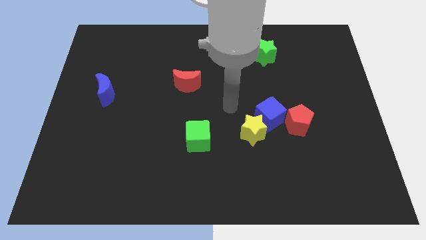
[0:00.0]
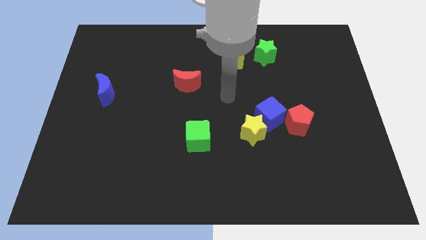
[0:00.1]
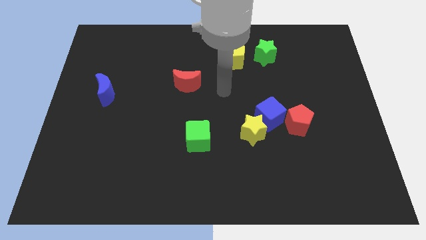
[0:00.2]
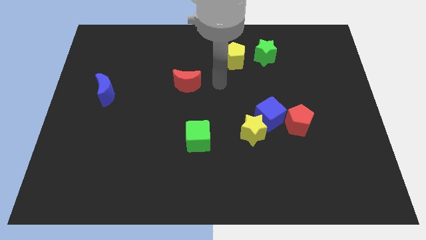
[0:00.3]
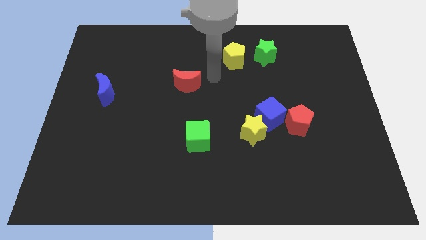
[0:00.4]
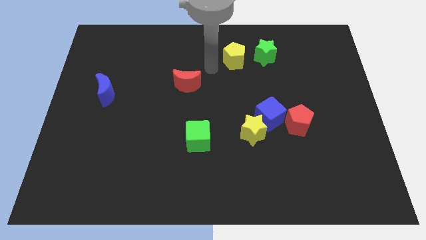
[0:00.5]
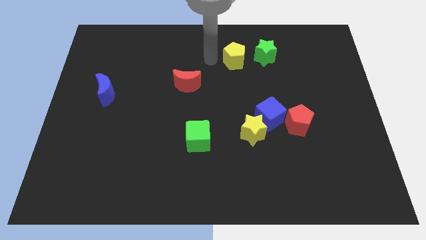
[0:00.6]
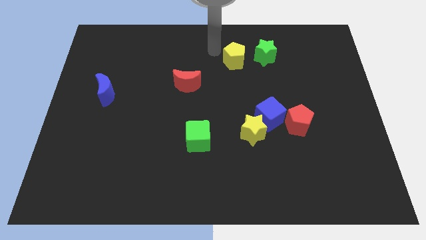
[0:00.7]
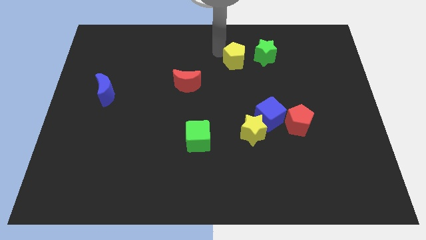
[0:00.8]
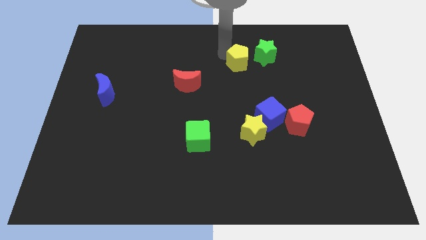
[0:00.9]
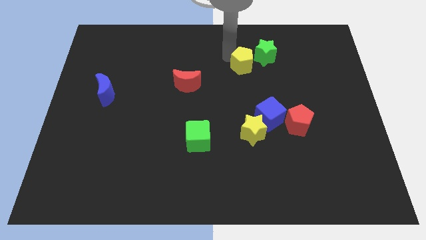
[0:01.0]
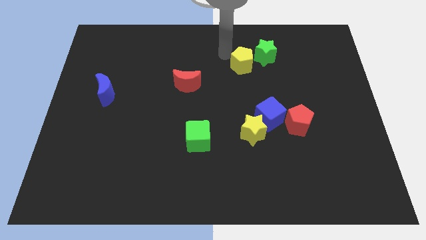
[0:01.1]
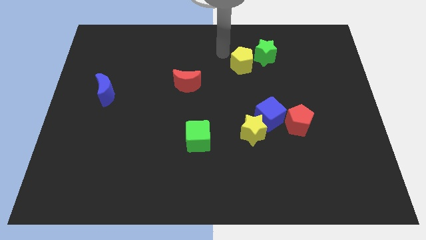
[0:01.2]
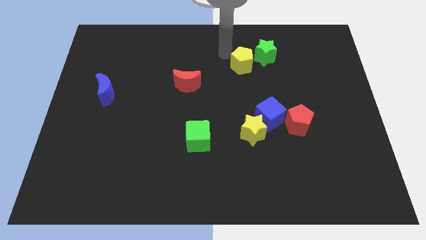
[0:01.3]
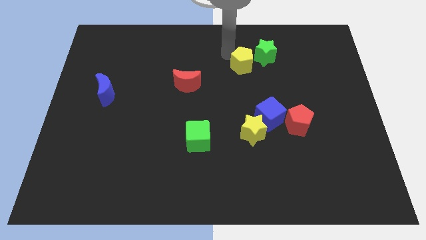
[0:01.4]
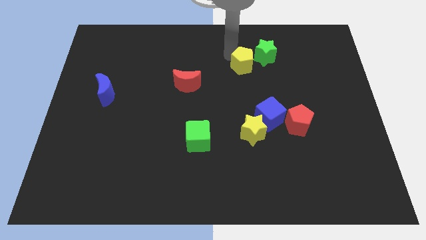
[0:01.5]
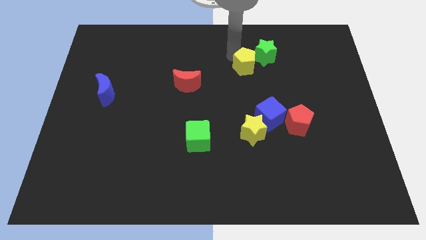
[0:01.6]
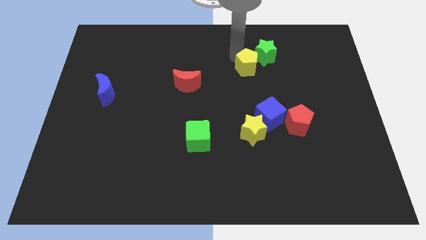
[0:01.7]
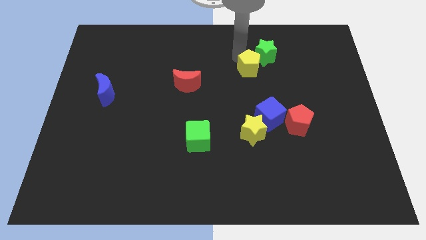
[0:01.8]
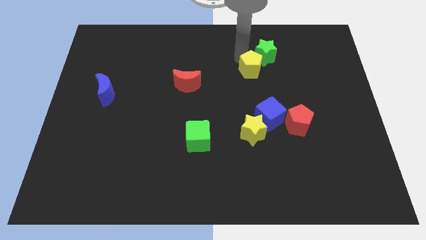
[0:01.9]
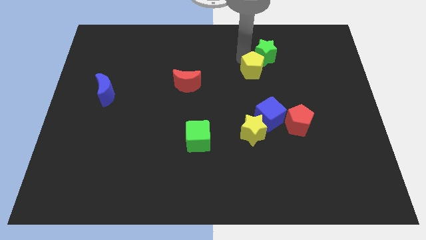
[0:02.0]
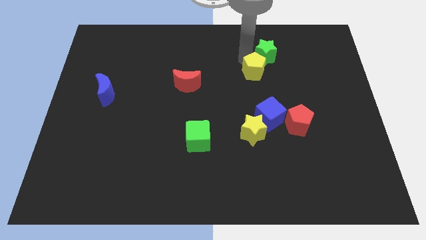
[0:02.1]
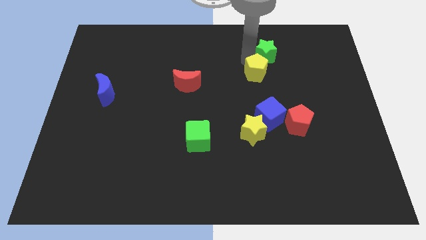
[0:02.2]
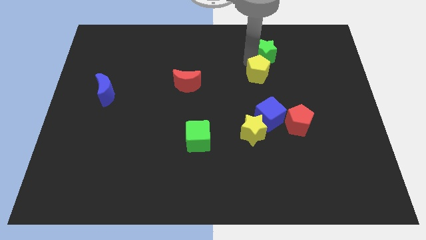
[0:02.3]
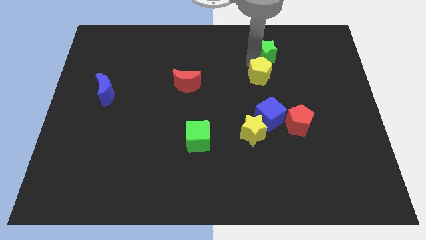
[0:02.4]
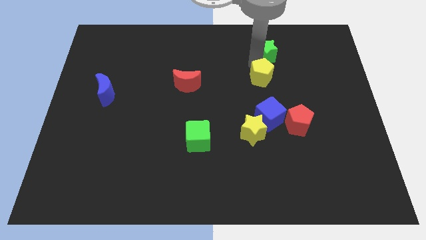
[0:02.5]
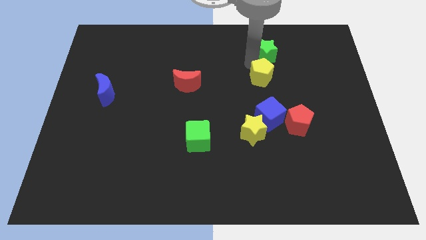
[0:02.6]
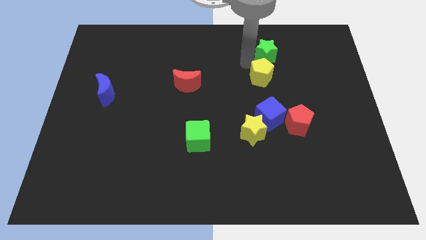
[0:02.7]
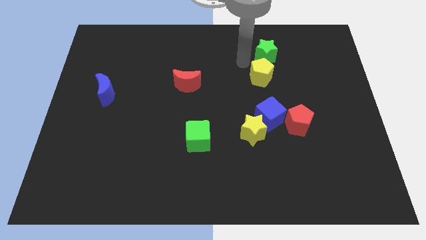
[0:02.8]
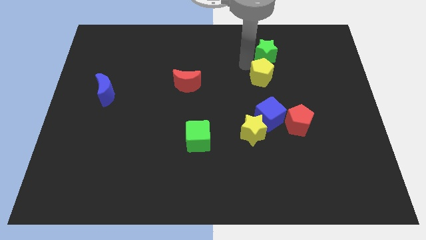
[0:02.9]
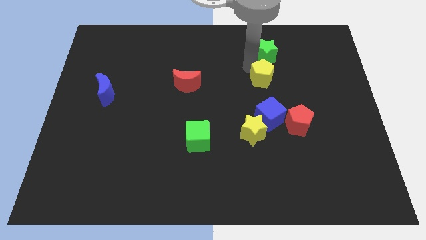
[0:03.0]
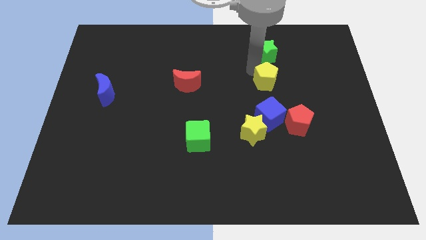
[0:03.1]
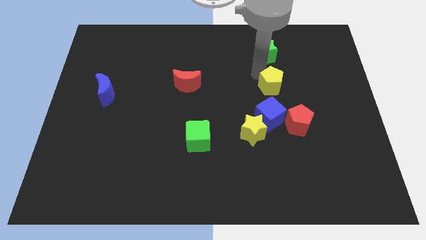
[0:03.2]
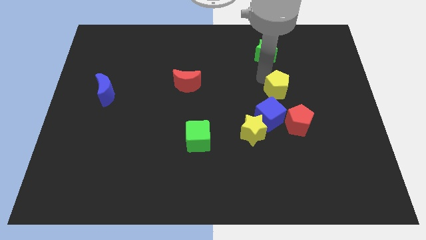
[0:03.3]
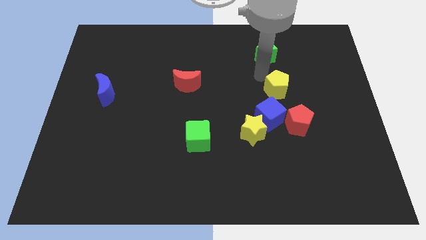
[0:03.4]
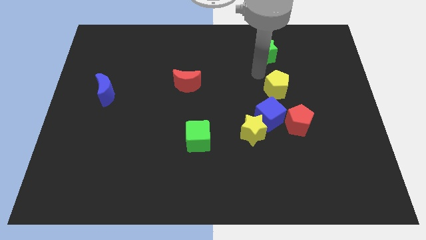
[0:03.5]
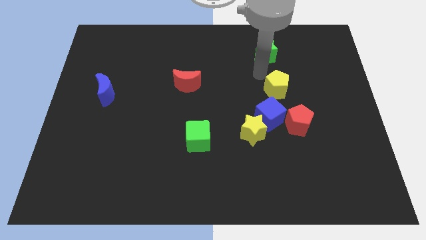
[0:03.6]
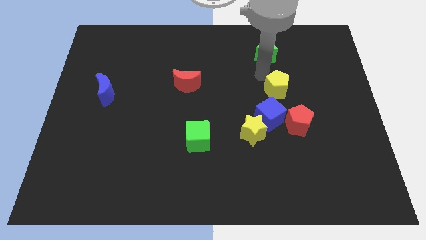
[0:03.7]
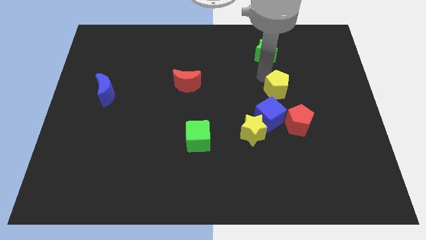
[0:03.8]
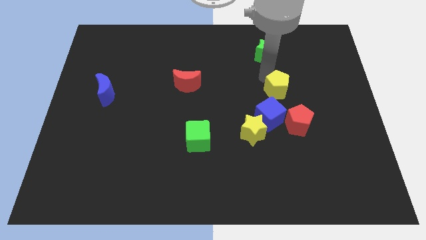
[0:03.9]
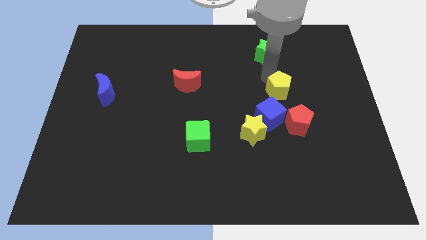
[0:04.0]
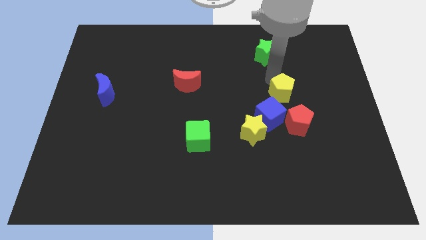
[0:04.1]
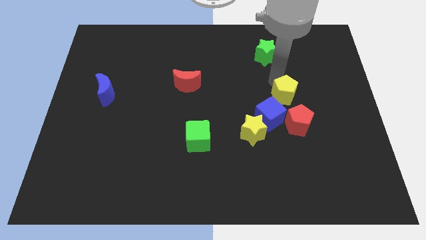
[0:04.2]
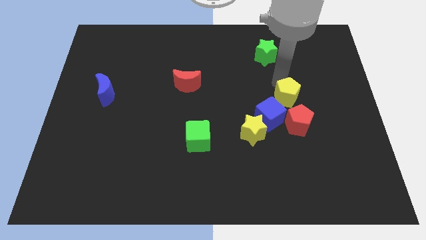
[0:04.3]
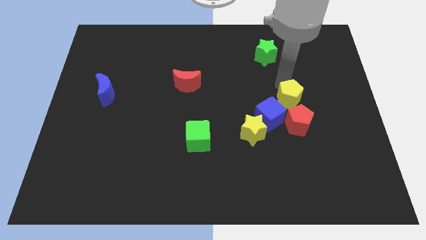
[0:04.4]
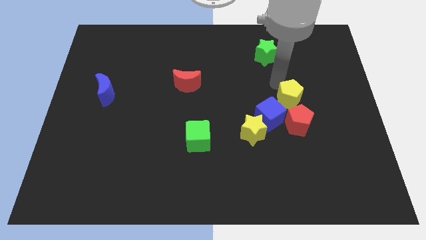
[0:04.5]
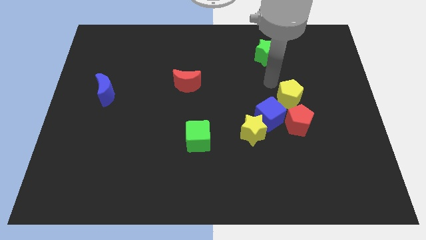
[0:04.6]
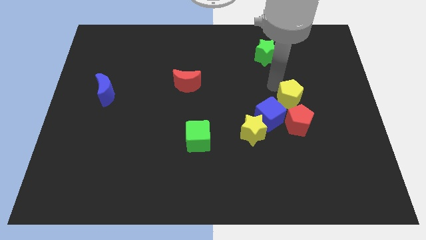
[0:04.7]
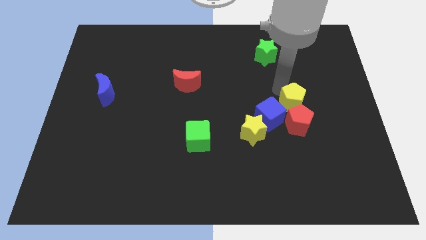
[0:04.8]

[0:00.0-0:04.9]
slide the yellow pentagon to the right side of the blue cube

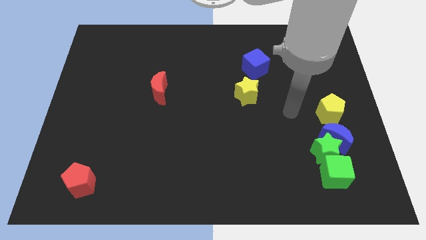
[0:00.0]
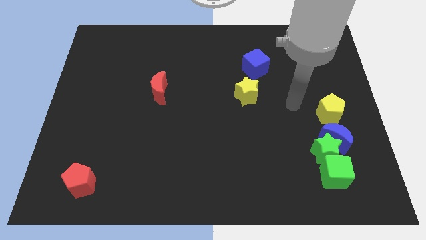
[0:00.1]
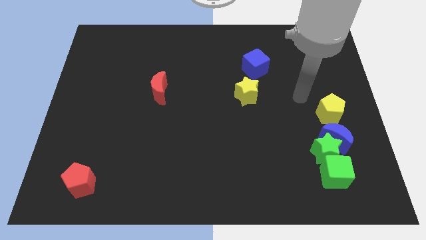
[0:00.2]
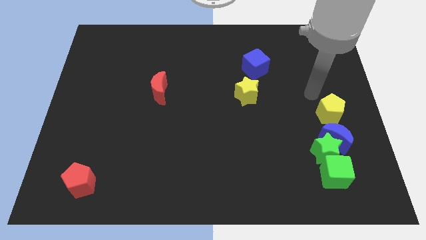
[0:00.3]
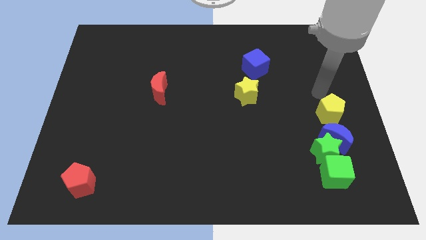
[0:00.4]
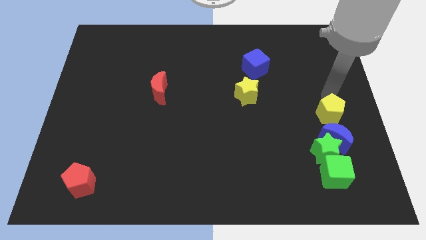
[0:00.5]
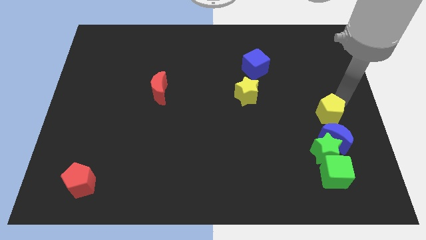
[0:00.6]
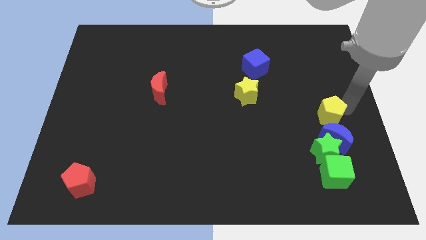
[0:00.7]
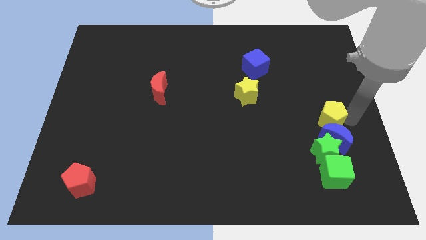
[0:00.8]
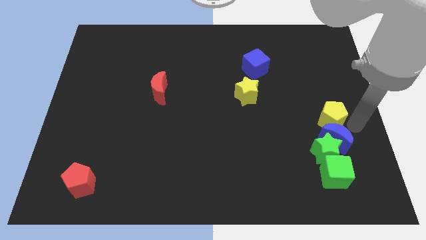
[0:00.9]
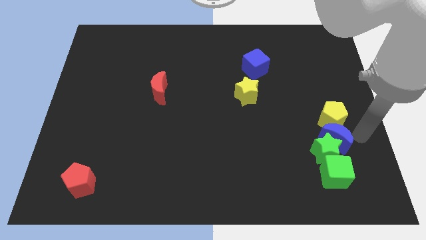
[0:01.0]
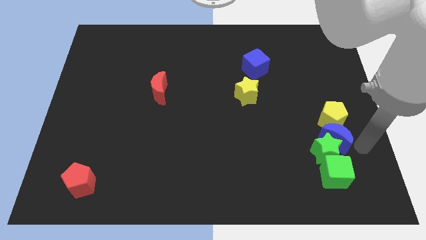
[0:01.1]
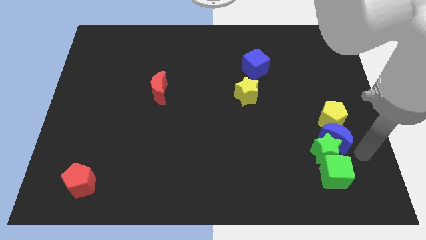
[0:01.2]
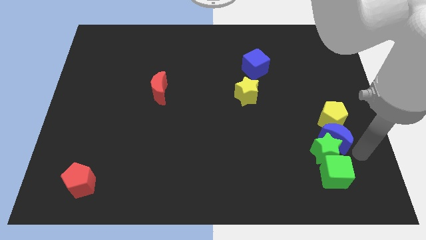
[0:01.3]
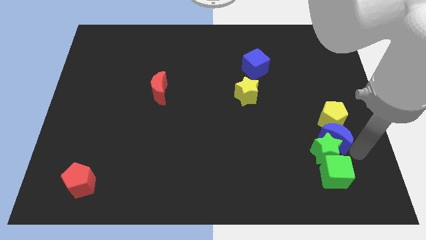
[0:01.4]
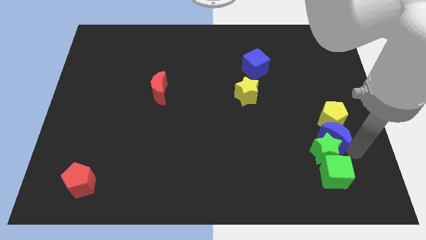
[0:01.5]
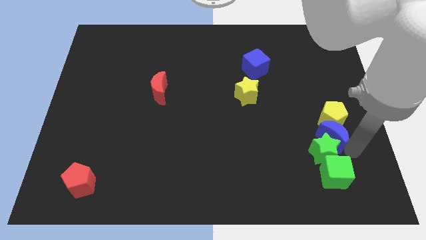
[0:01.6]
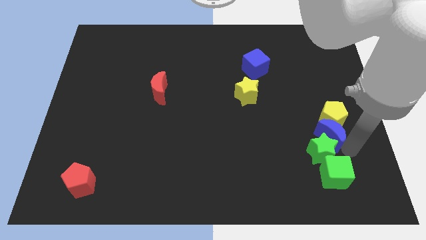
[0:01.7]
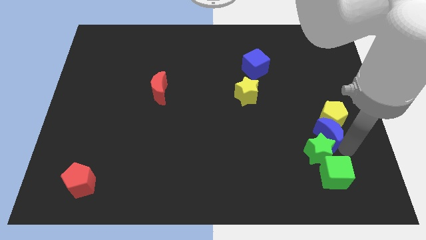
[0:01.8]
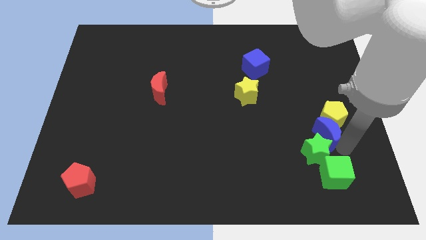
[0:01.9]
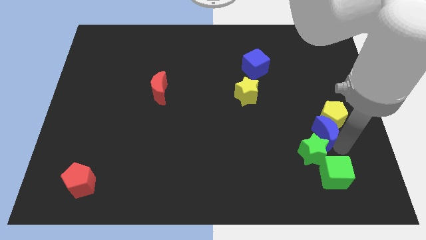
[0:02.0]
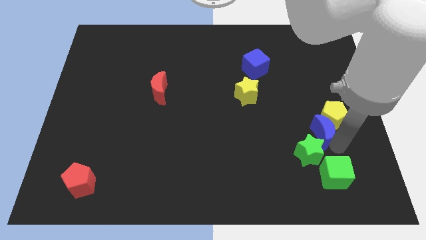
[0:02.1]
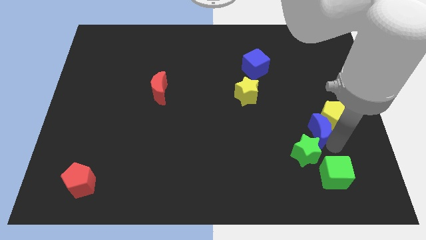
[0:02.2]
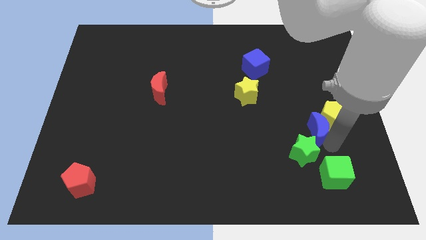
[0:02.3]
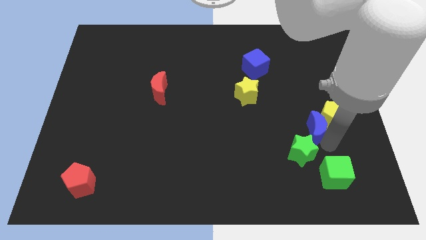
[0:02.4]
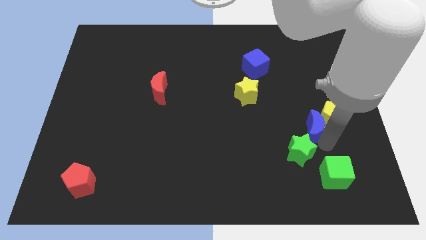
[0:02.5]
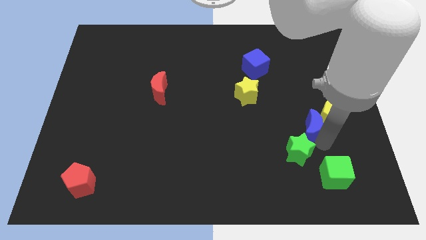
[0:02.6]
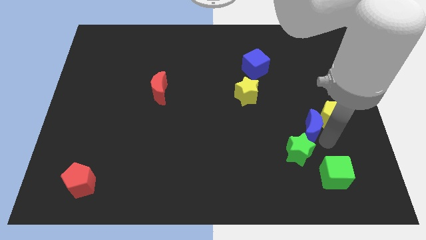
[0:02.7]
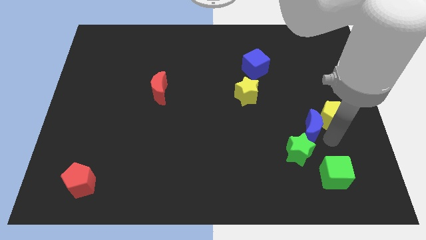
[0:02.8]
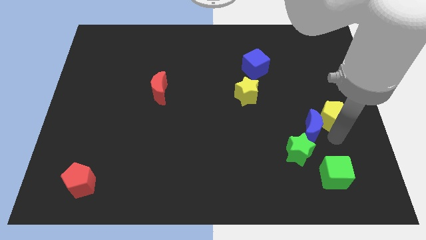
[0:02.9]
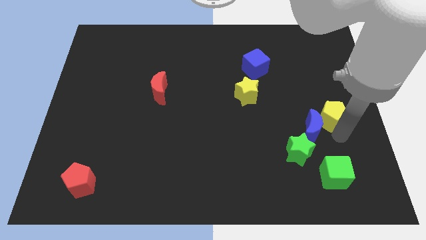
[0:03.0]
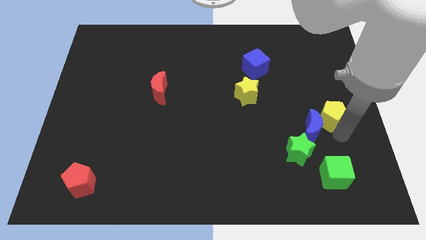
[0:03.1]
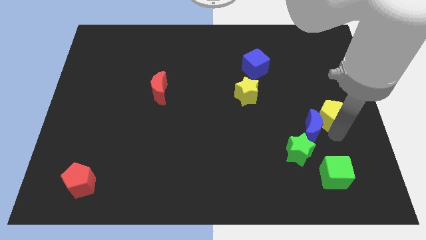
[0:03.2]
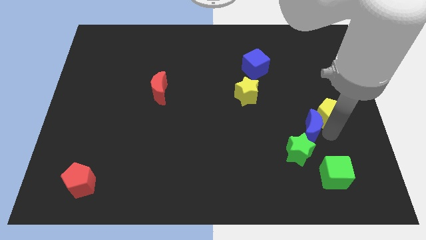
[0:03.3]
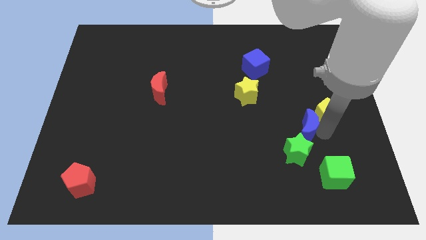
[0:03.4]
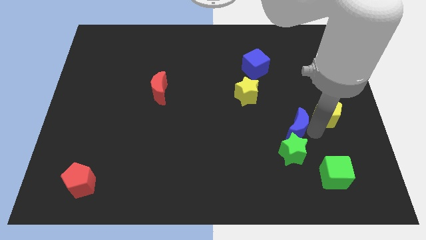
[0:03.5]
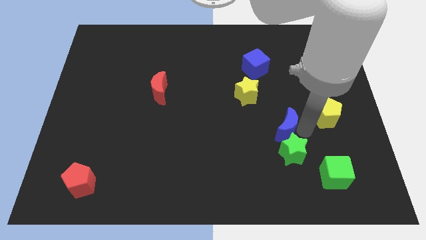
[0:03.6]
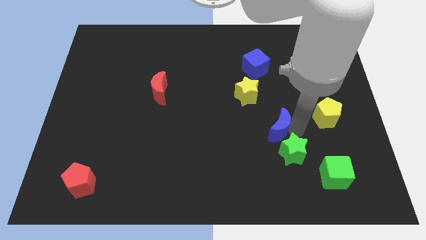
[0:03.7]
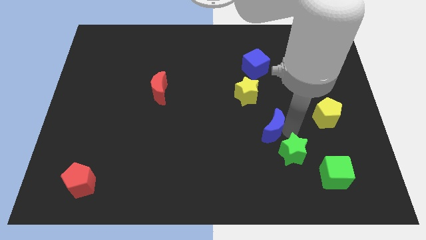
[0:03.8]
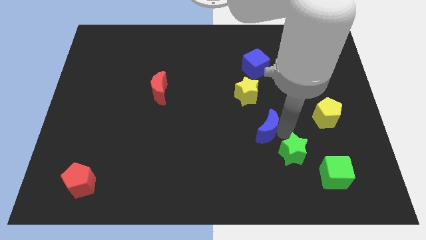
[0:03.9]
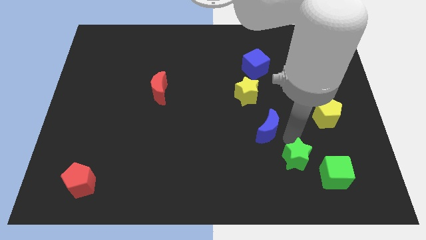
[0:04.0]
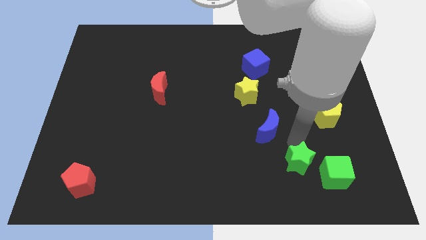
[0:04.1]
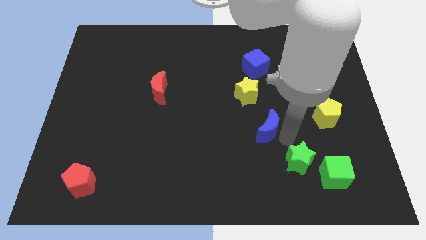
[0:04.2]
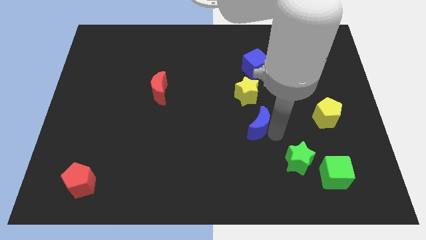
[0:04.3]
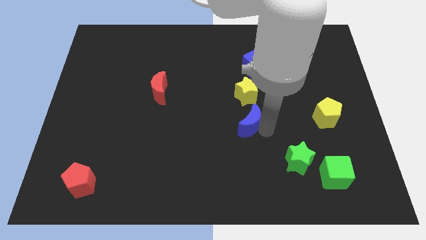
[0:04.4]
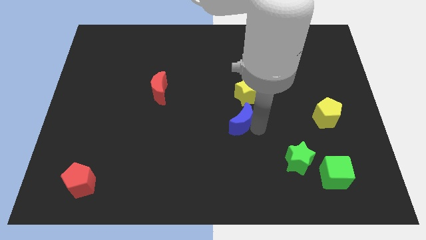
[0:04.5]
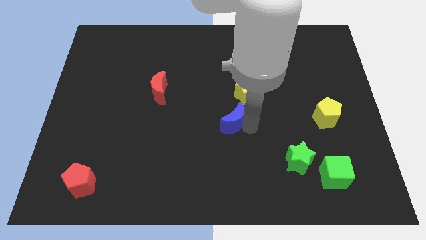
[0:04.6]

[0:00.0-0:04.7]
move the blue moon to the bottom left of the yellow star
